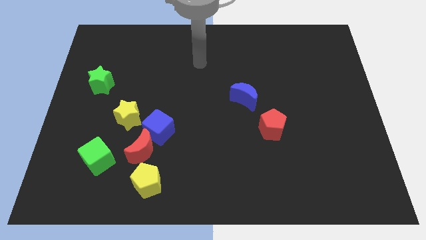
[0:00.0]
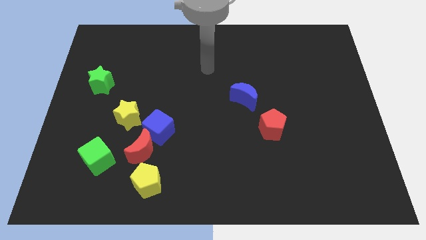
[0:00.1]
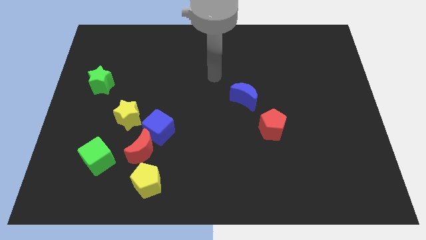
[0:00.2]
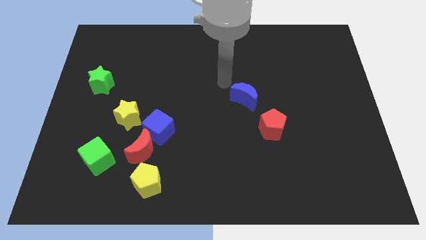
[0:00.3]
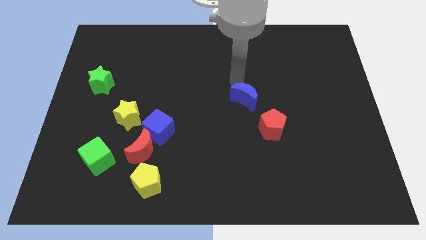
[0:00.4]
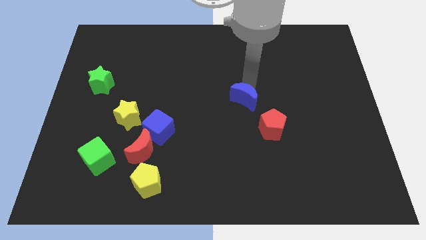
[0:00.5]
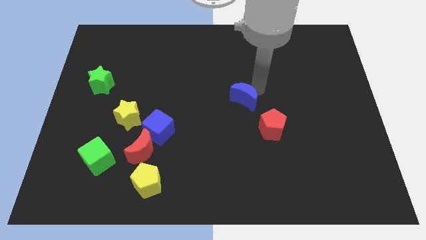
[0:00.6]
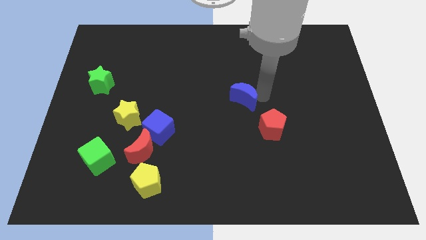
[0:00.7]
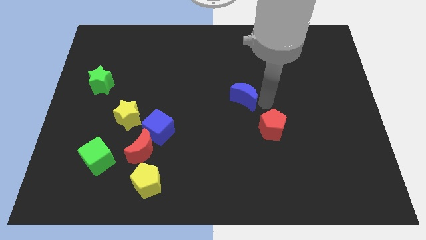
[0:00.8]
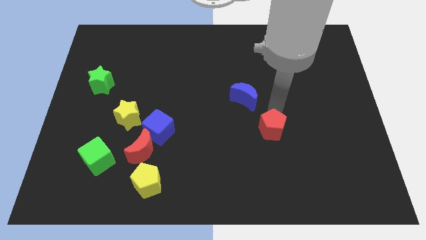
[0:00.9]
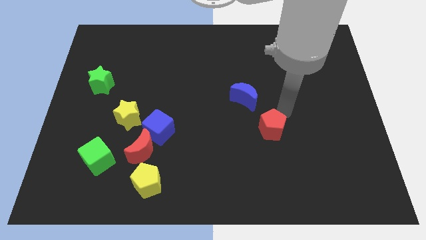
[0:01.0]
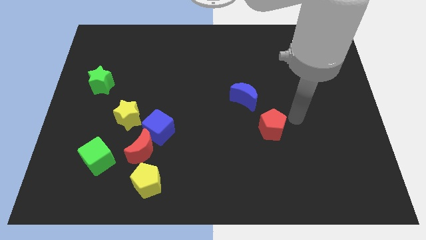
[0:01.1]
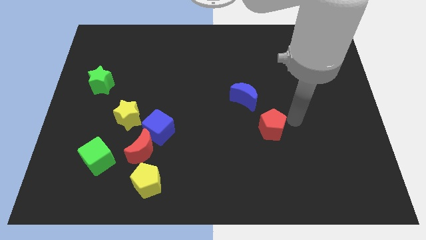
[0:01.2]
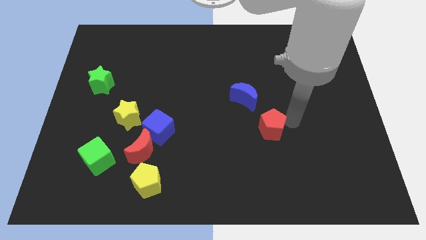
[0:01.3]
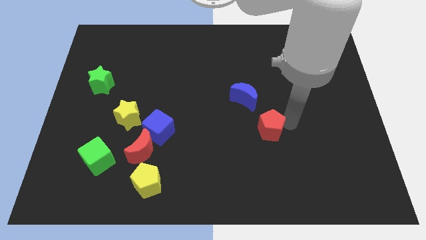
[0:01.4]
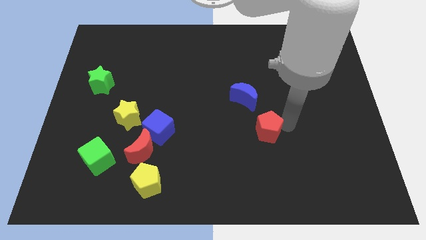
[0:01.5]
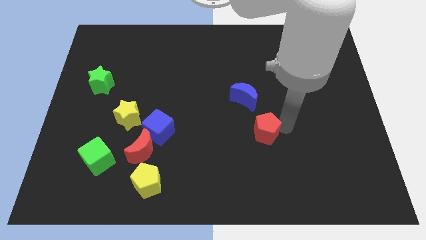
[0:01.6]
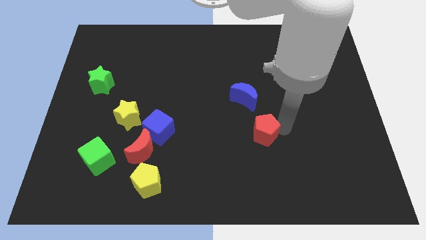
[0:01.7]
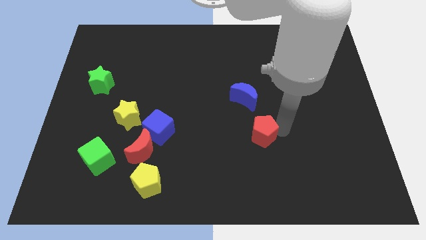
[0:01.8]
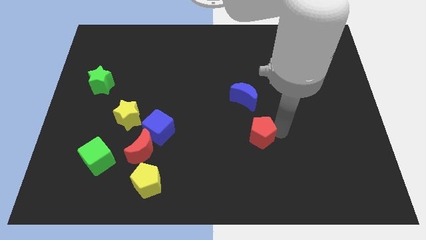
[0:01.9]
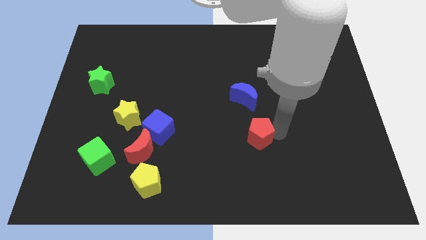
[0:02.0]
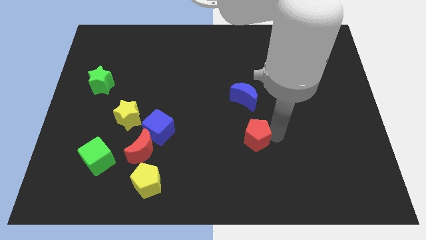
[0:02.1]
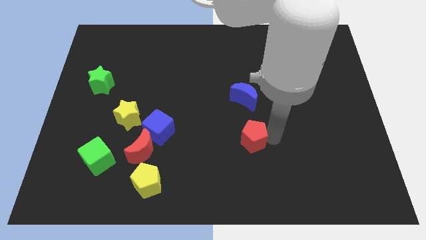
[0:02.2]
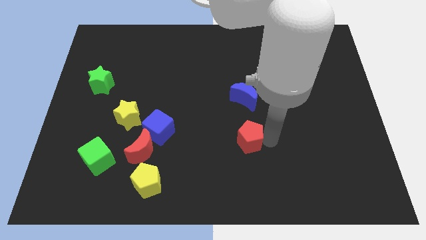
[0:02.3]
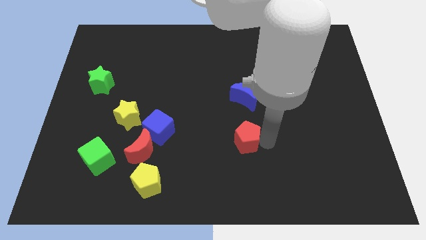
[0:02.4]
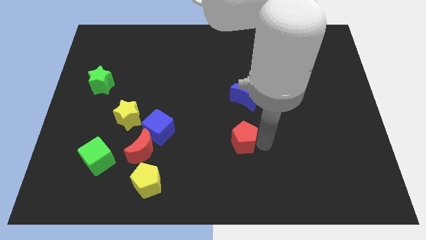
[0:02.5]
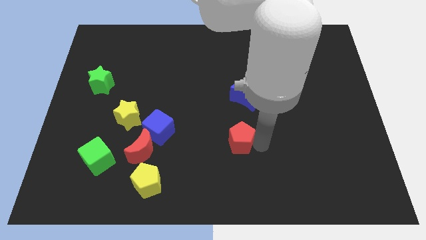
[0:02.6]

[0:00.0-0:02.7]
push the red pentagon left a little bit

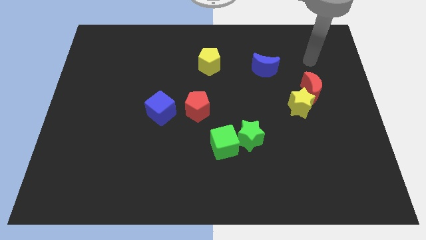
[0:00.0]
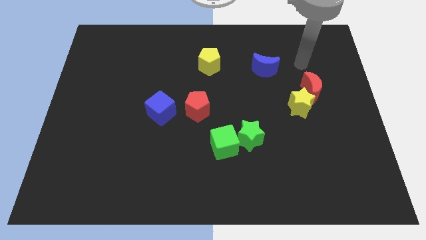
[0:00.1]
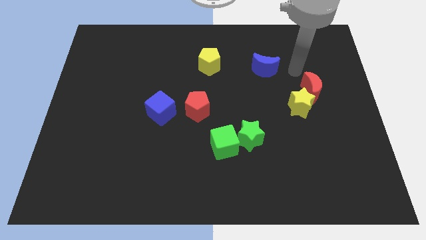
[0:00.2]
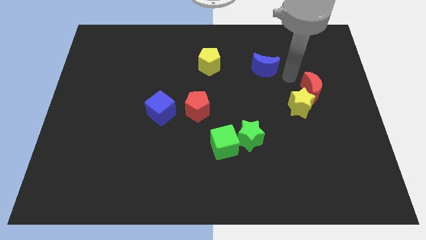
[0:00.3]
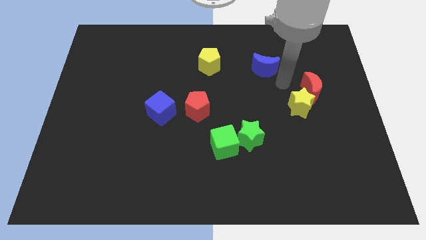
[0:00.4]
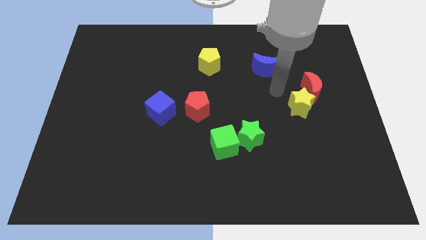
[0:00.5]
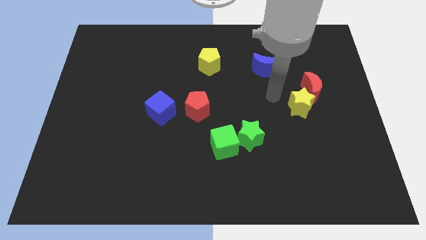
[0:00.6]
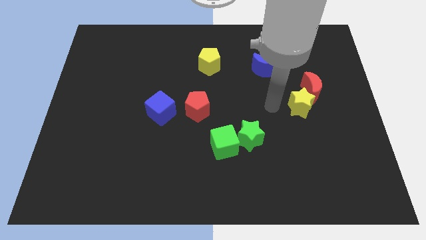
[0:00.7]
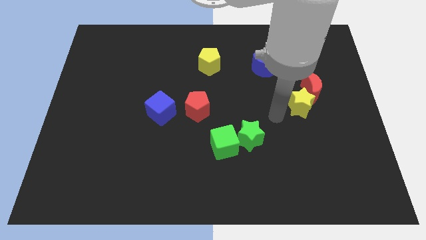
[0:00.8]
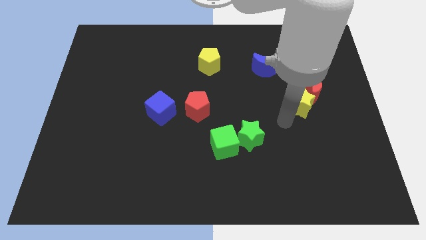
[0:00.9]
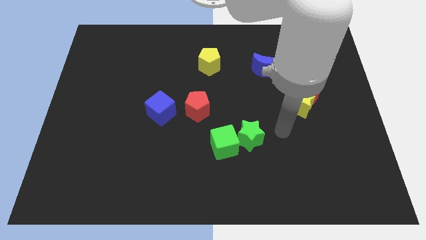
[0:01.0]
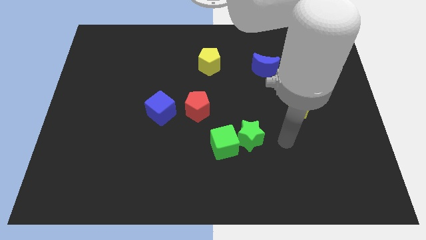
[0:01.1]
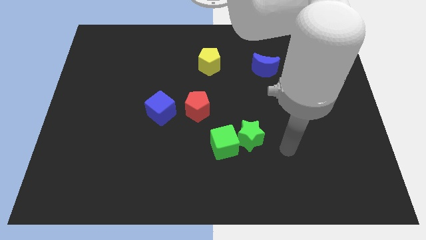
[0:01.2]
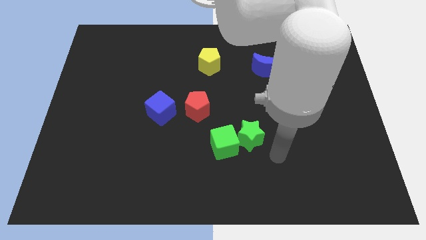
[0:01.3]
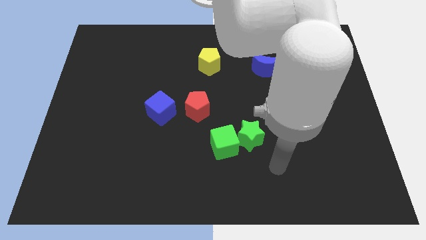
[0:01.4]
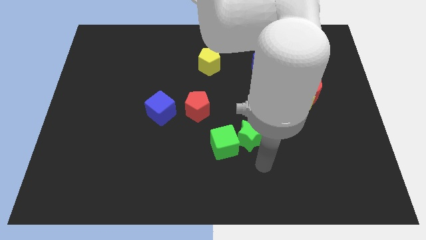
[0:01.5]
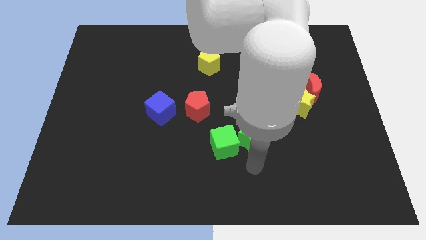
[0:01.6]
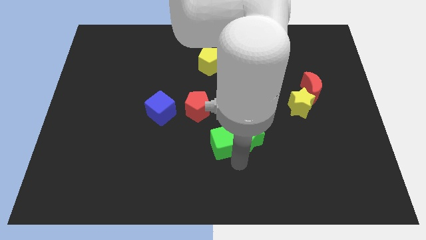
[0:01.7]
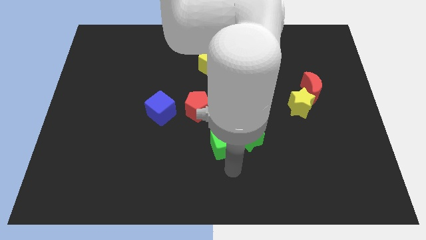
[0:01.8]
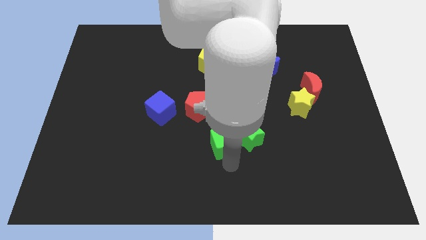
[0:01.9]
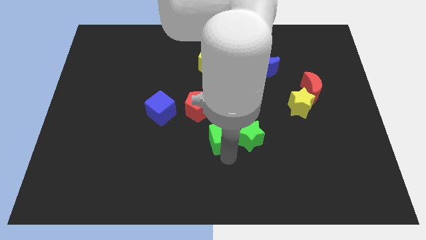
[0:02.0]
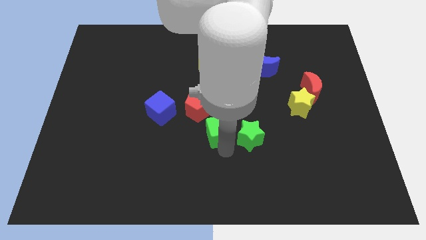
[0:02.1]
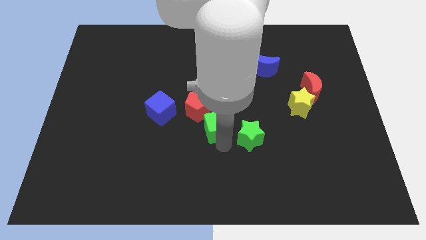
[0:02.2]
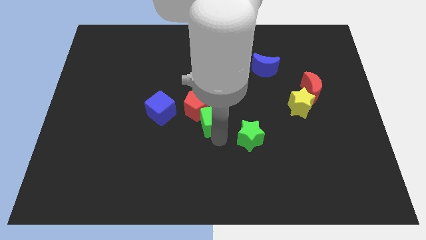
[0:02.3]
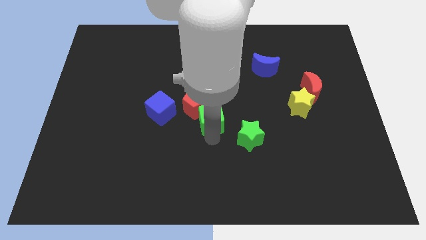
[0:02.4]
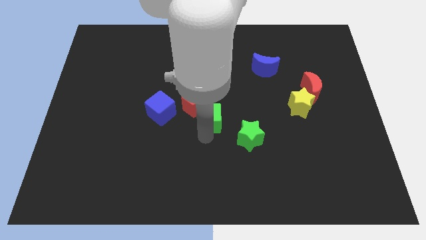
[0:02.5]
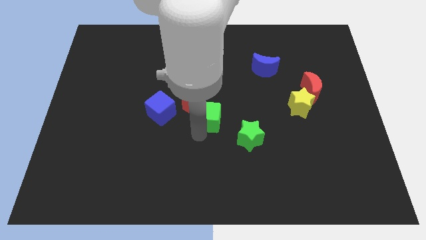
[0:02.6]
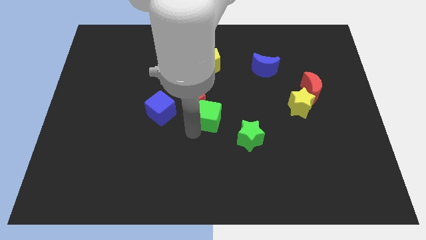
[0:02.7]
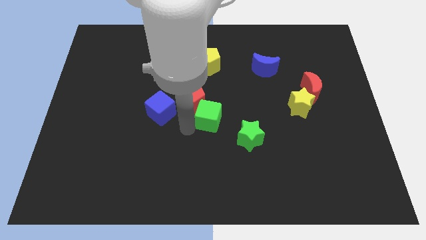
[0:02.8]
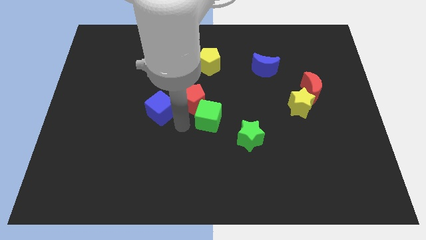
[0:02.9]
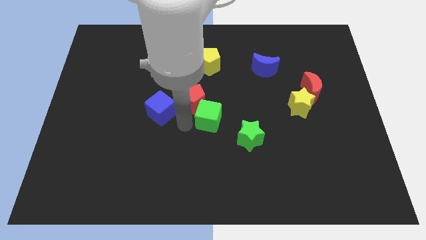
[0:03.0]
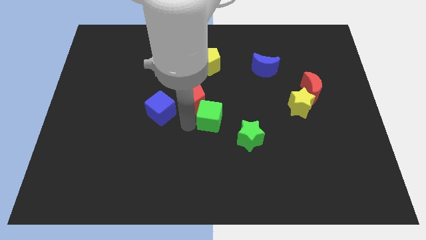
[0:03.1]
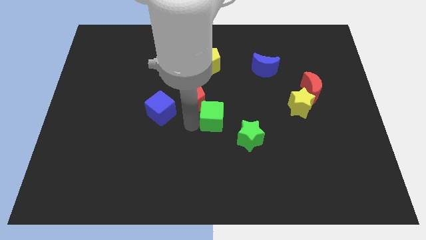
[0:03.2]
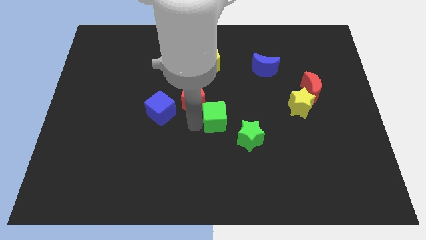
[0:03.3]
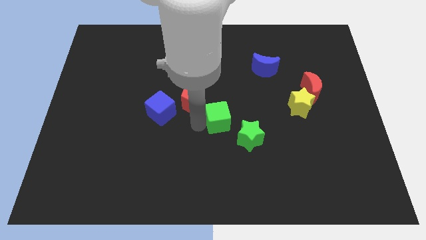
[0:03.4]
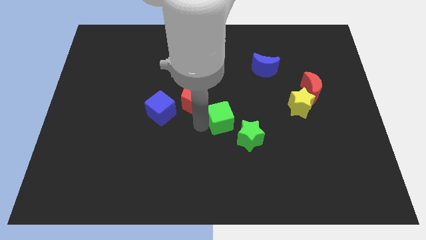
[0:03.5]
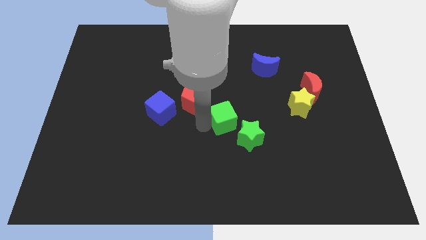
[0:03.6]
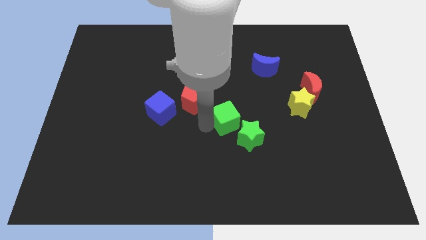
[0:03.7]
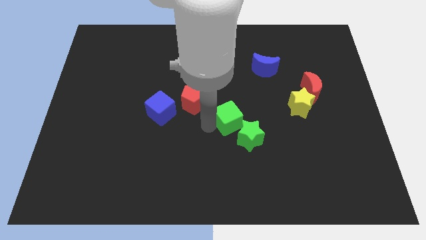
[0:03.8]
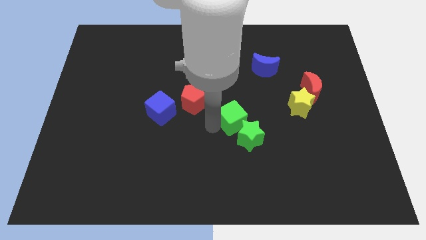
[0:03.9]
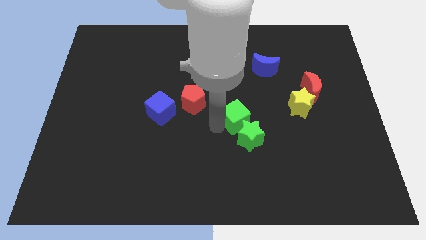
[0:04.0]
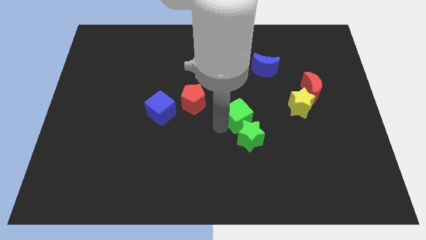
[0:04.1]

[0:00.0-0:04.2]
slightly push the green cube diagonally up and to the right

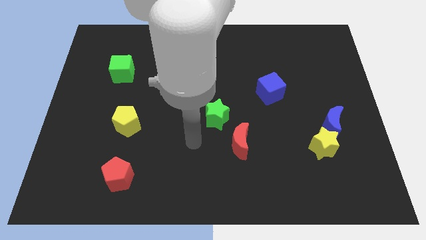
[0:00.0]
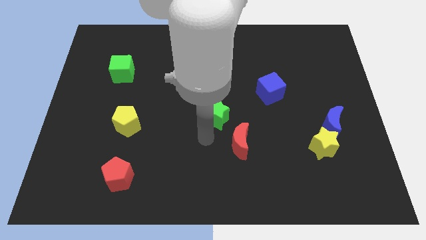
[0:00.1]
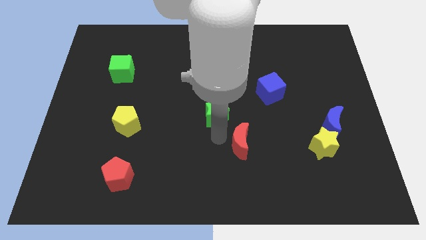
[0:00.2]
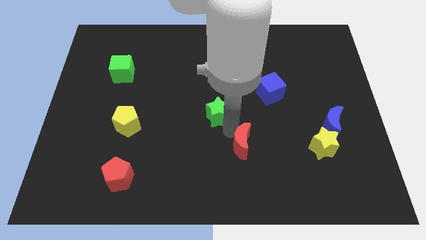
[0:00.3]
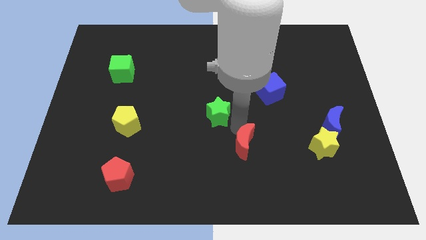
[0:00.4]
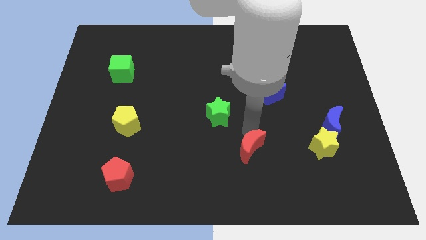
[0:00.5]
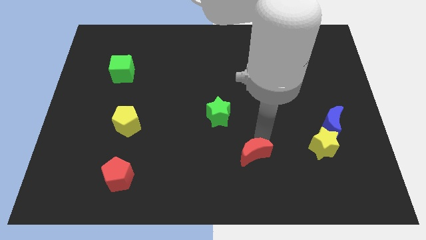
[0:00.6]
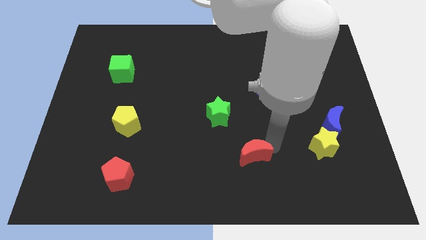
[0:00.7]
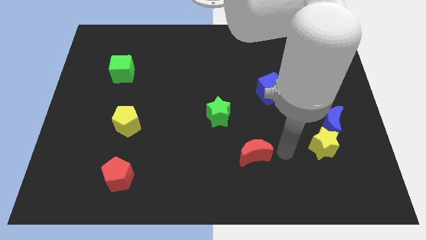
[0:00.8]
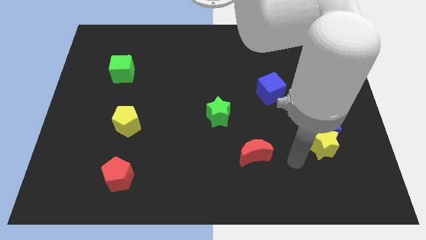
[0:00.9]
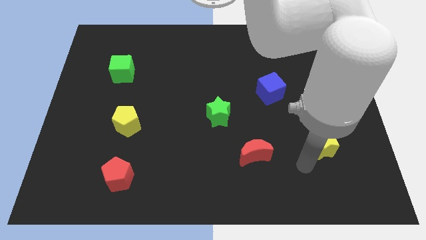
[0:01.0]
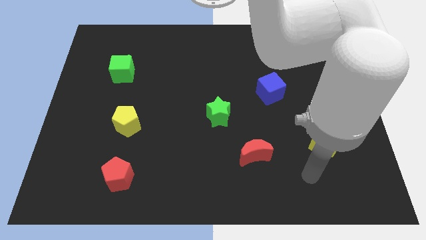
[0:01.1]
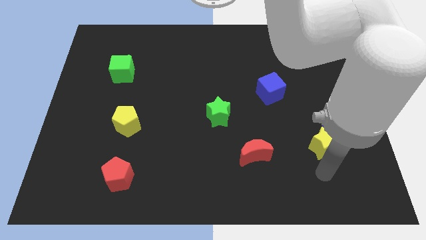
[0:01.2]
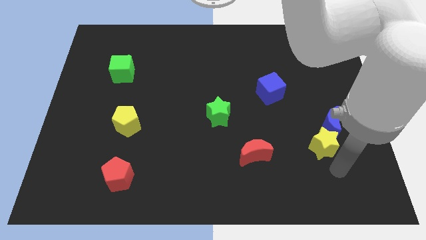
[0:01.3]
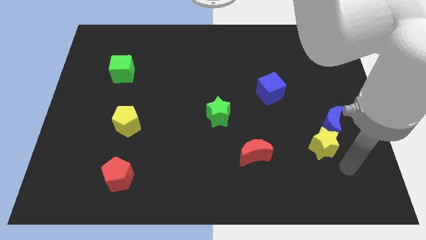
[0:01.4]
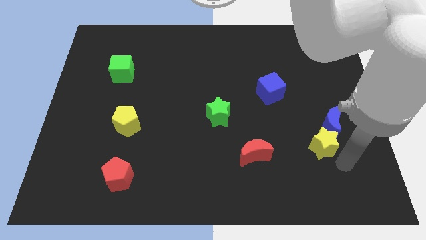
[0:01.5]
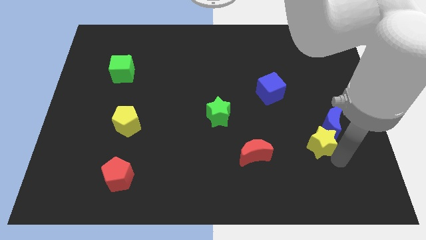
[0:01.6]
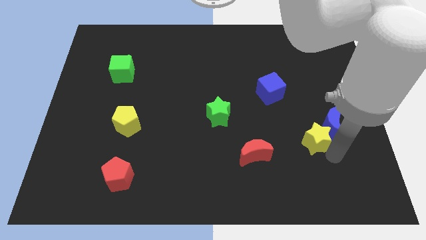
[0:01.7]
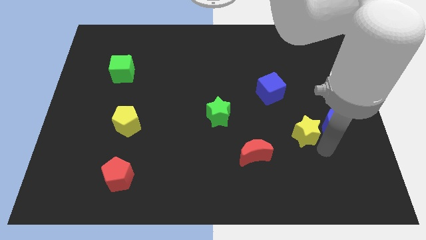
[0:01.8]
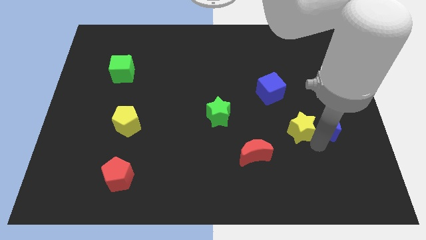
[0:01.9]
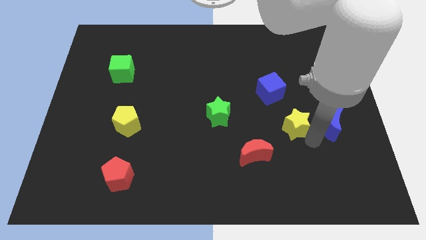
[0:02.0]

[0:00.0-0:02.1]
slide the yellow star somewhat up and left diagonally
